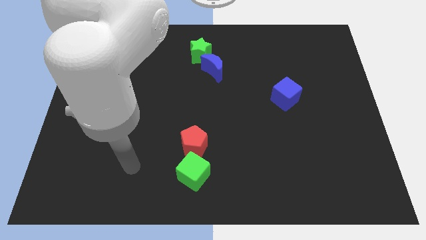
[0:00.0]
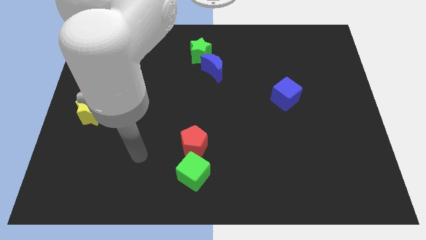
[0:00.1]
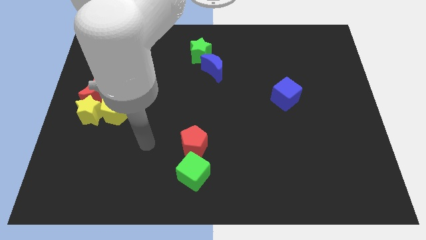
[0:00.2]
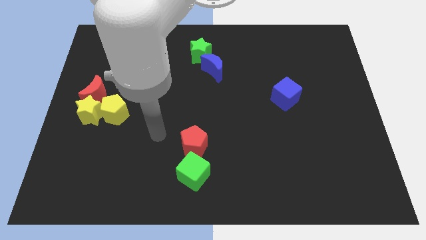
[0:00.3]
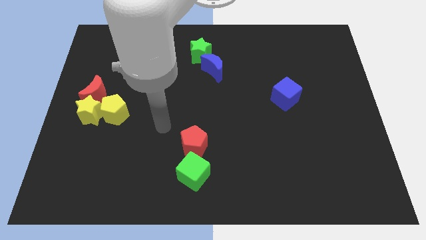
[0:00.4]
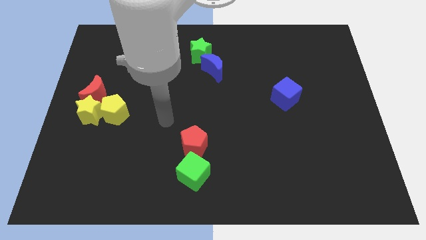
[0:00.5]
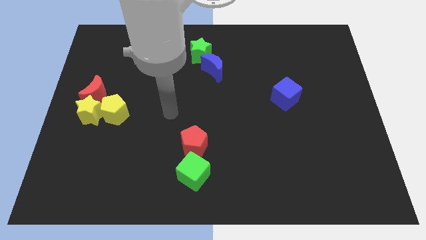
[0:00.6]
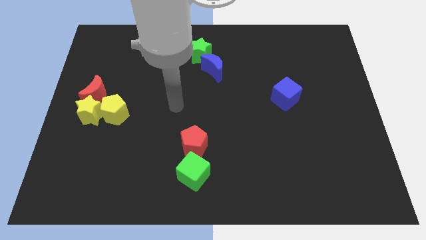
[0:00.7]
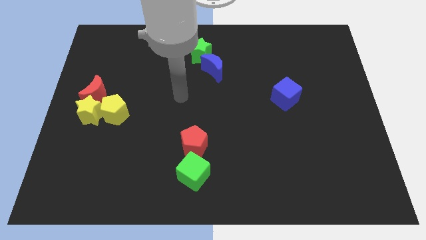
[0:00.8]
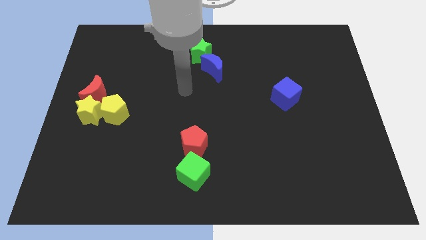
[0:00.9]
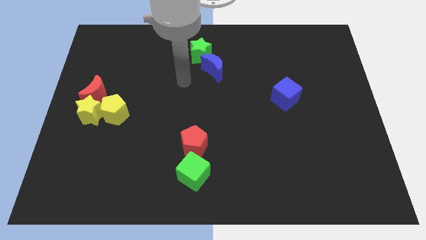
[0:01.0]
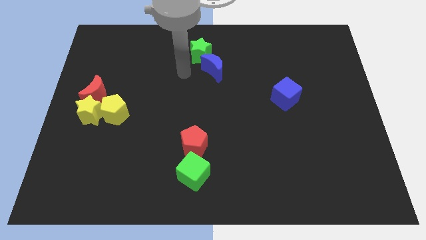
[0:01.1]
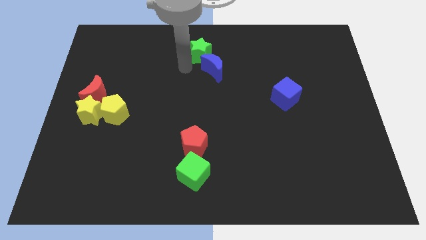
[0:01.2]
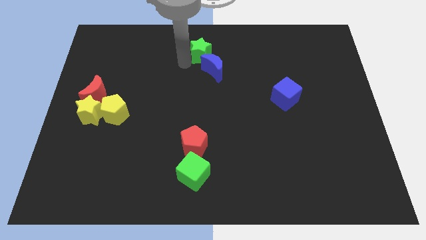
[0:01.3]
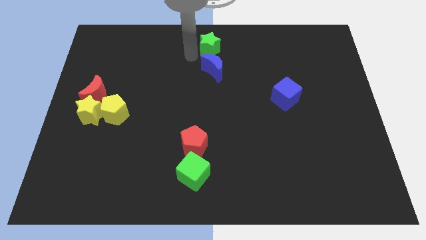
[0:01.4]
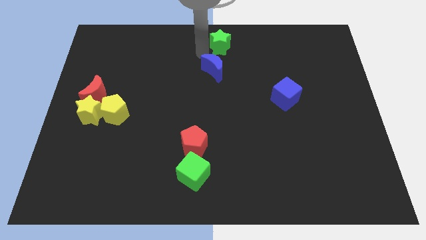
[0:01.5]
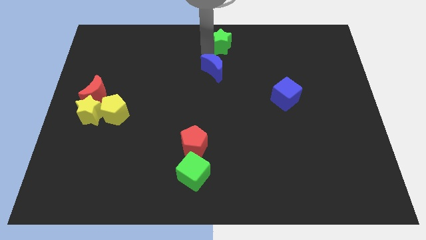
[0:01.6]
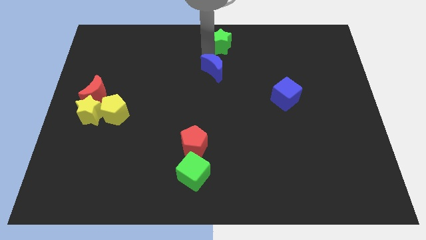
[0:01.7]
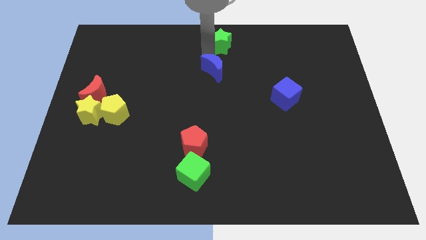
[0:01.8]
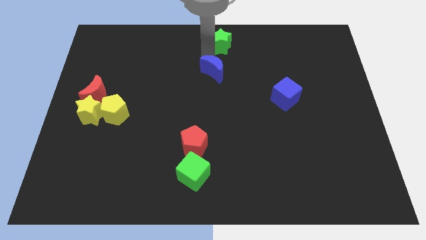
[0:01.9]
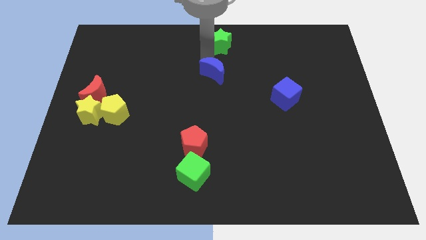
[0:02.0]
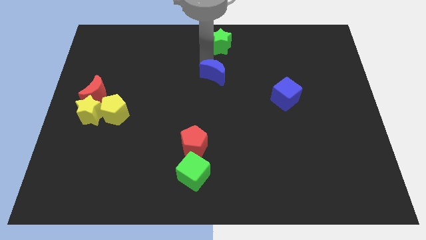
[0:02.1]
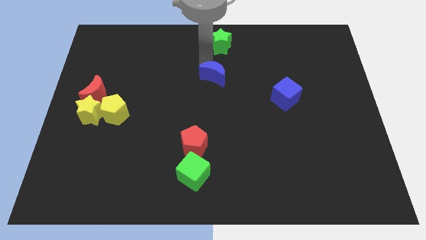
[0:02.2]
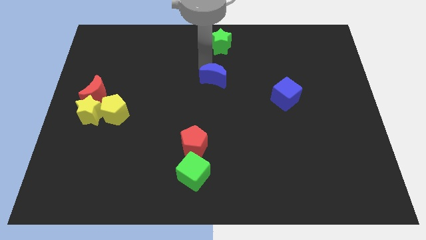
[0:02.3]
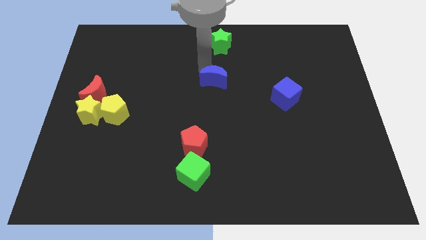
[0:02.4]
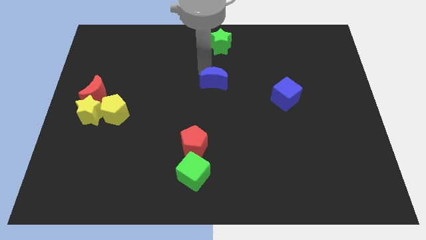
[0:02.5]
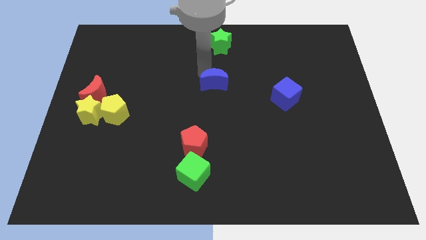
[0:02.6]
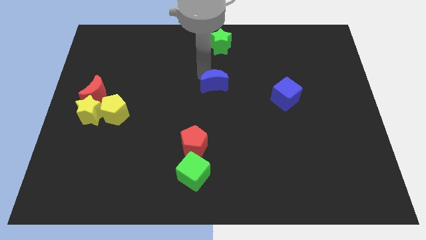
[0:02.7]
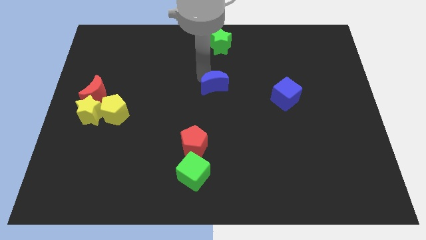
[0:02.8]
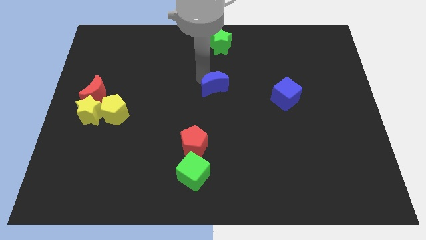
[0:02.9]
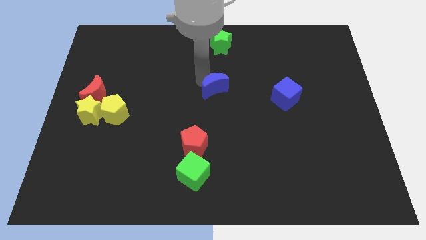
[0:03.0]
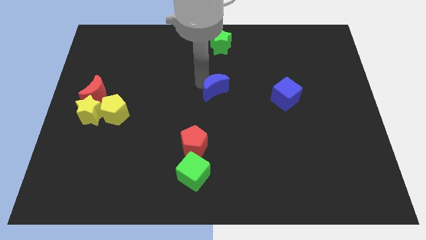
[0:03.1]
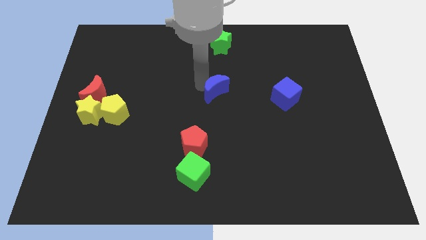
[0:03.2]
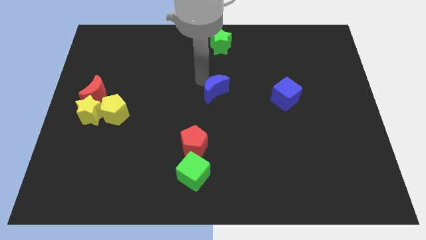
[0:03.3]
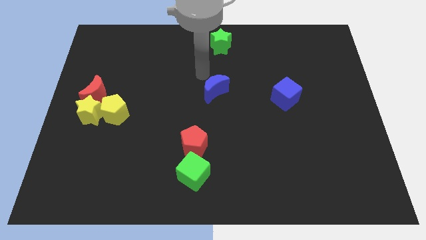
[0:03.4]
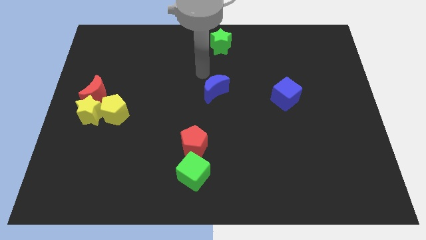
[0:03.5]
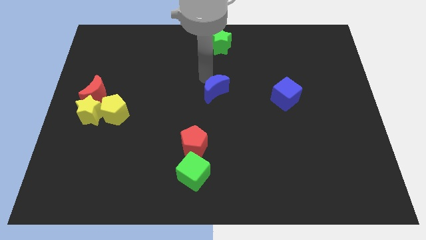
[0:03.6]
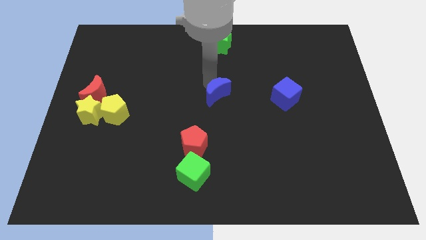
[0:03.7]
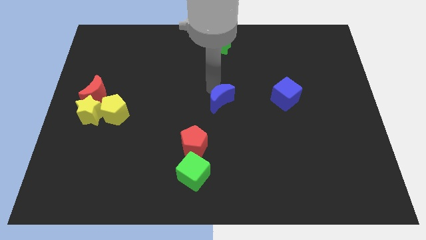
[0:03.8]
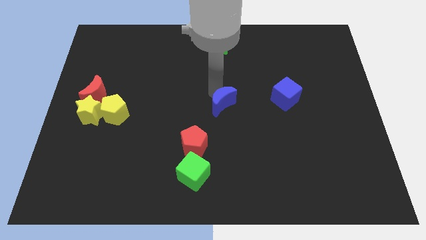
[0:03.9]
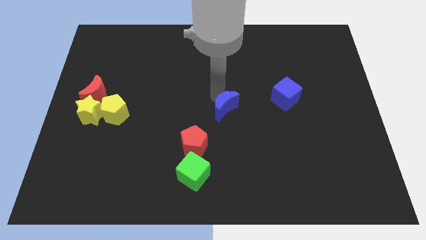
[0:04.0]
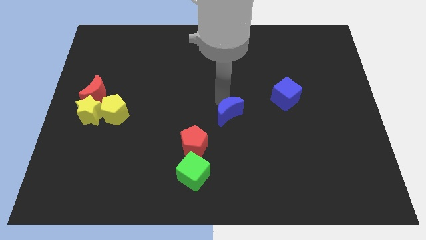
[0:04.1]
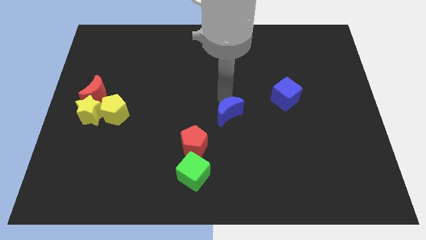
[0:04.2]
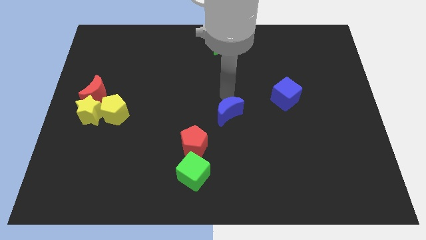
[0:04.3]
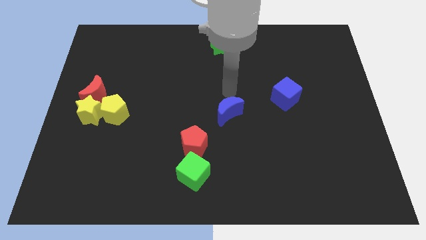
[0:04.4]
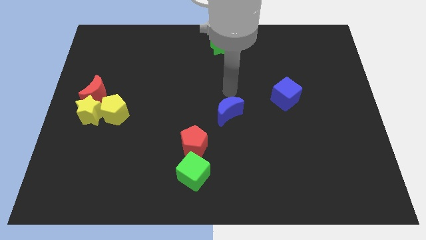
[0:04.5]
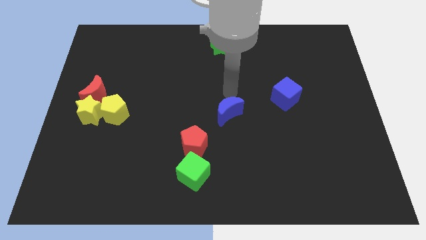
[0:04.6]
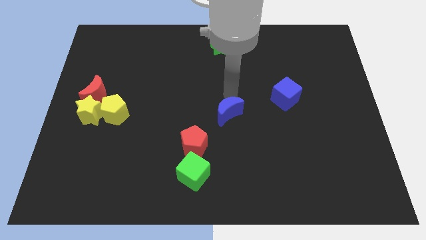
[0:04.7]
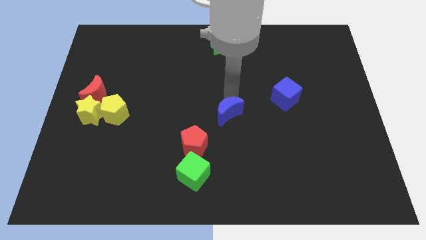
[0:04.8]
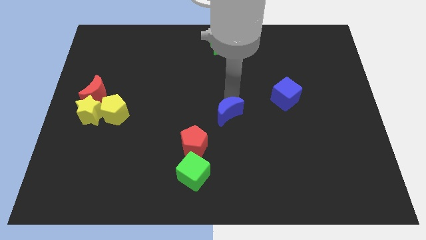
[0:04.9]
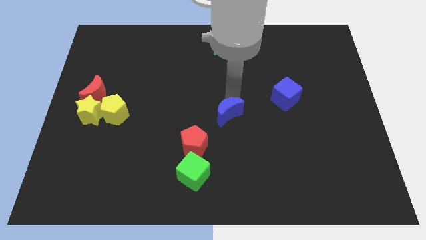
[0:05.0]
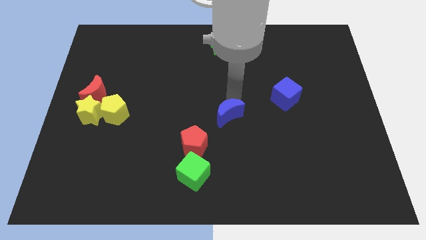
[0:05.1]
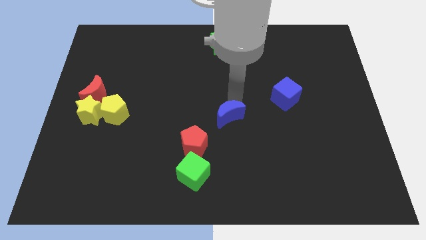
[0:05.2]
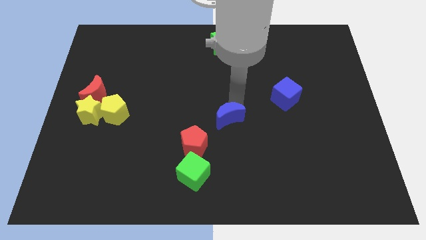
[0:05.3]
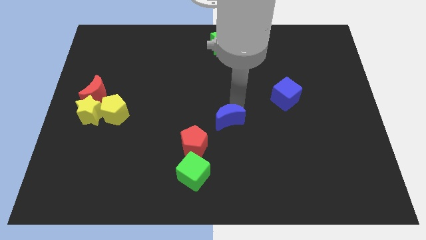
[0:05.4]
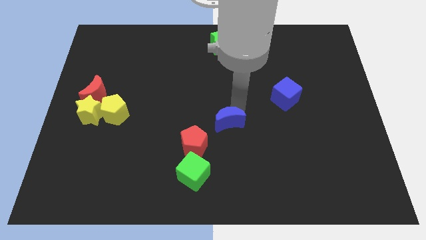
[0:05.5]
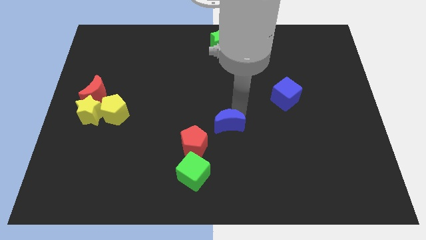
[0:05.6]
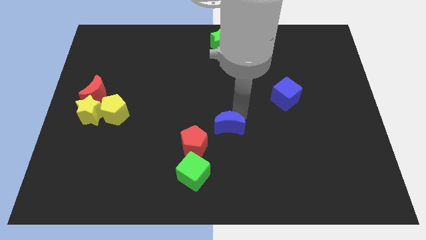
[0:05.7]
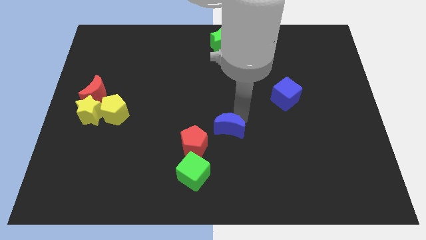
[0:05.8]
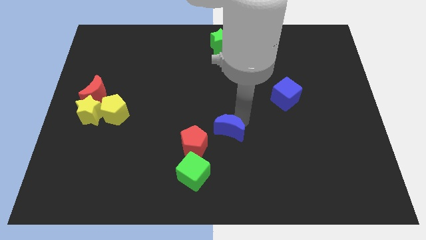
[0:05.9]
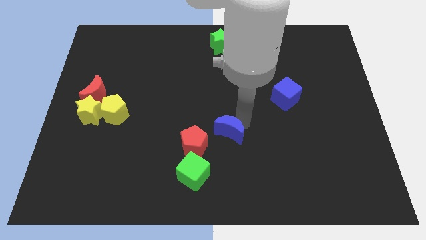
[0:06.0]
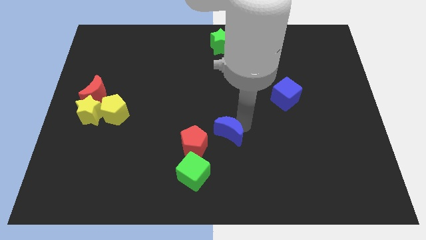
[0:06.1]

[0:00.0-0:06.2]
move the blue moon to the top right side of the green cube
